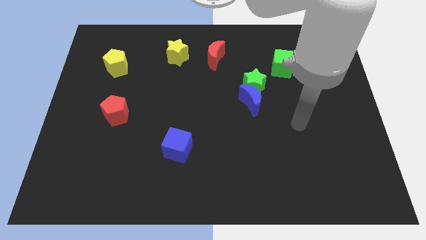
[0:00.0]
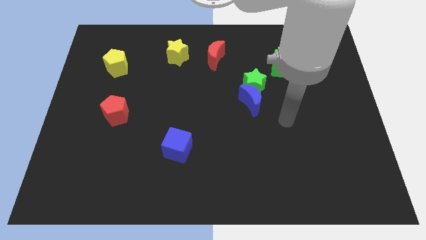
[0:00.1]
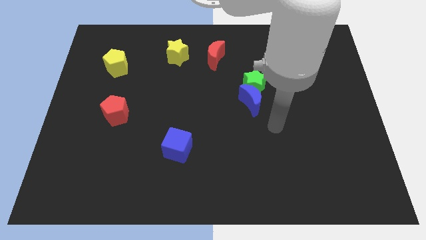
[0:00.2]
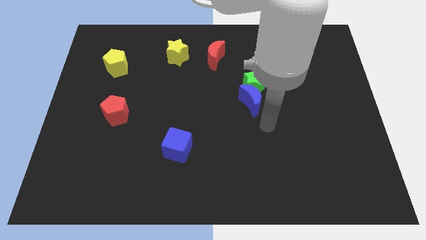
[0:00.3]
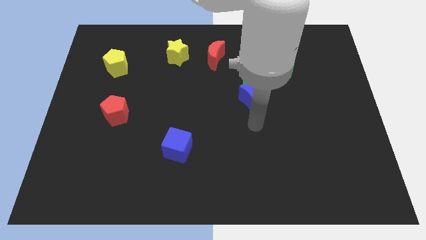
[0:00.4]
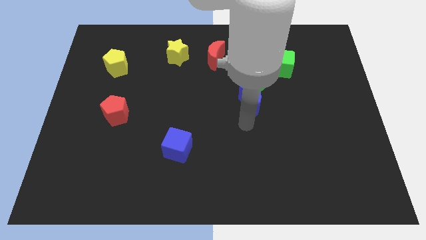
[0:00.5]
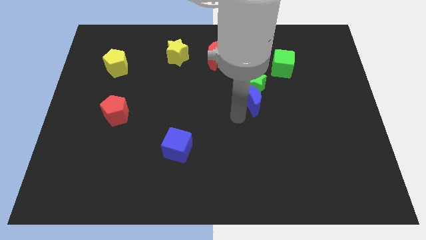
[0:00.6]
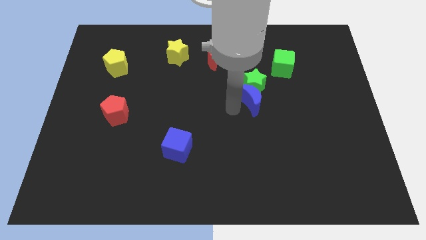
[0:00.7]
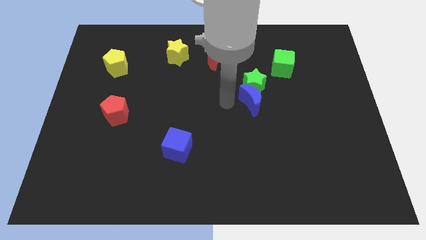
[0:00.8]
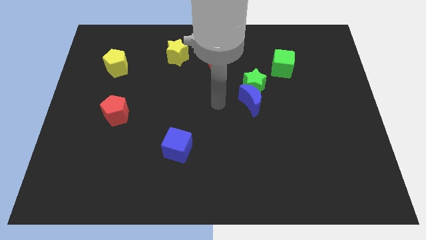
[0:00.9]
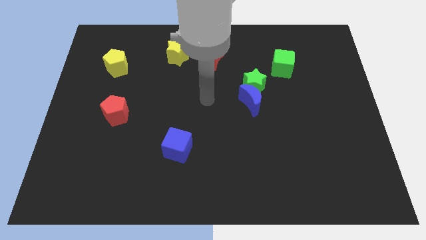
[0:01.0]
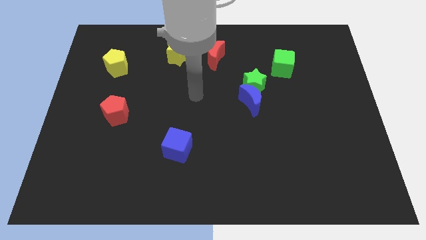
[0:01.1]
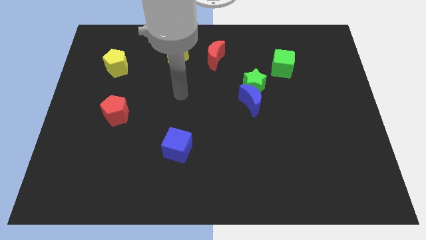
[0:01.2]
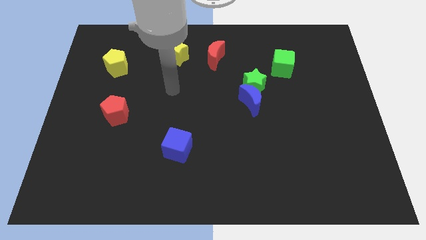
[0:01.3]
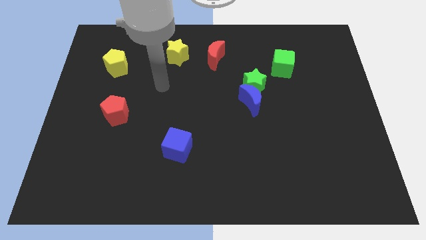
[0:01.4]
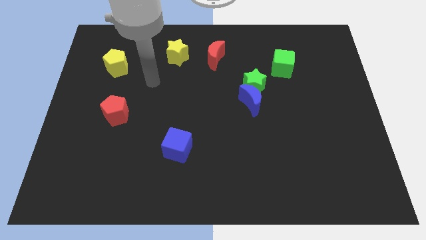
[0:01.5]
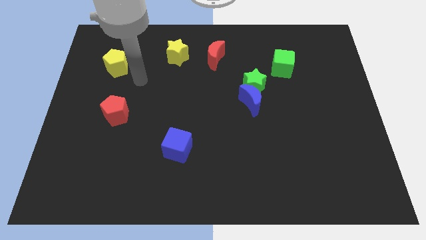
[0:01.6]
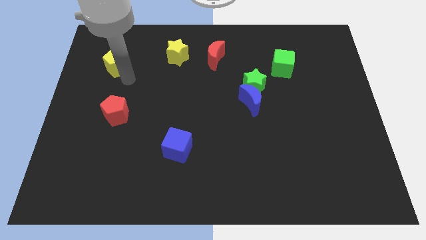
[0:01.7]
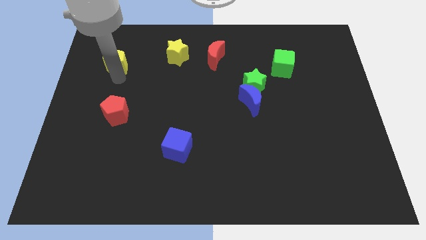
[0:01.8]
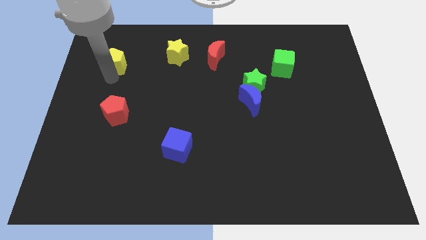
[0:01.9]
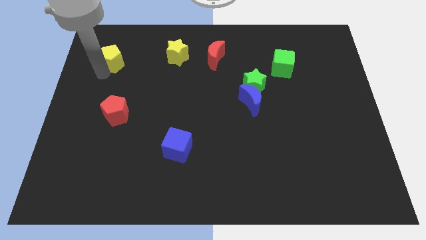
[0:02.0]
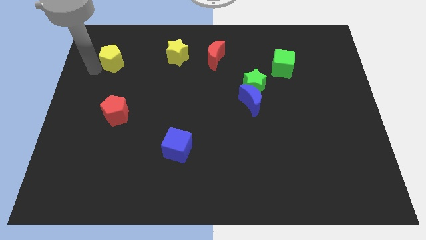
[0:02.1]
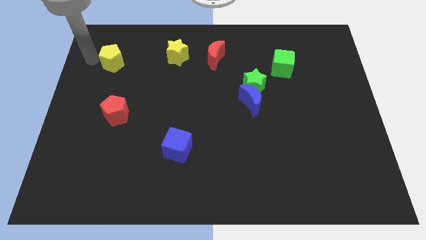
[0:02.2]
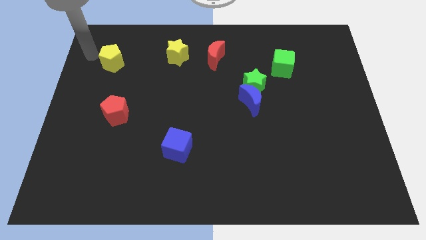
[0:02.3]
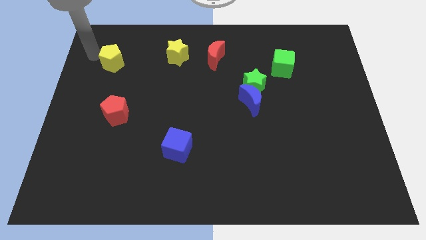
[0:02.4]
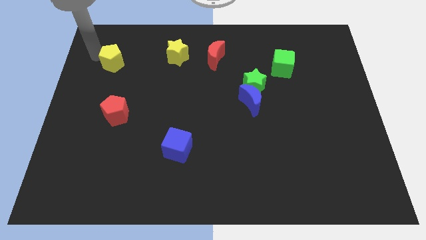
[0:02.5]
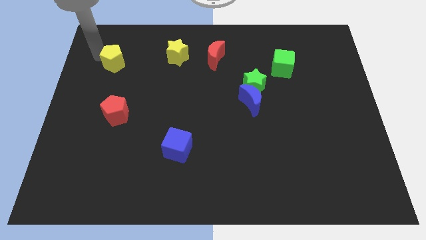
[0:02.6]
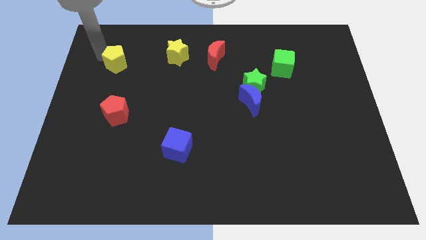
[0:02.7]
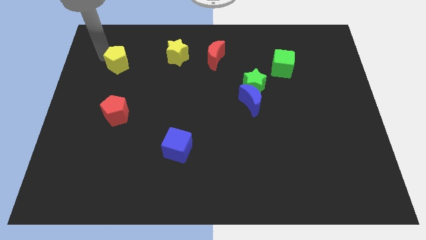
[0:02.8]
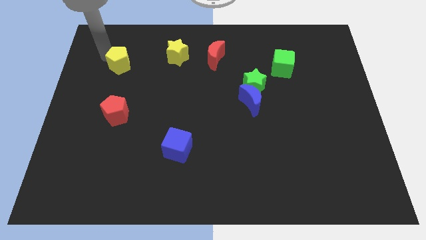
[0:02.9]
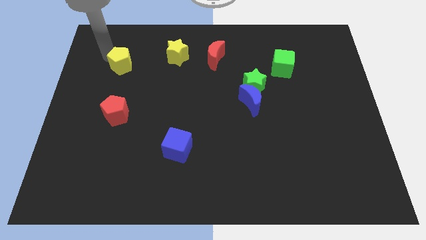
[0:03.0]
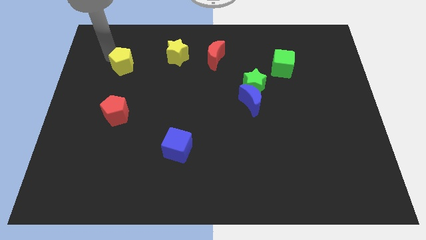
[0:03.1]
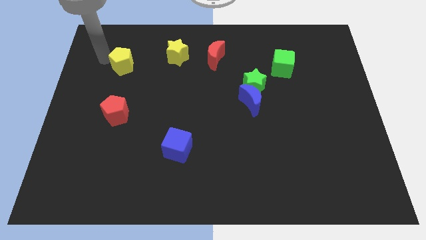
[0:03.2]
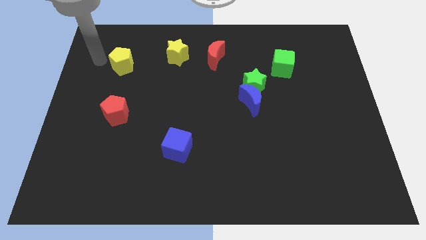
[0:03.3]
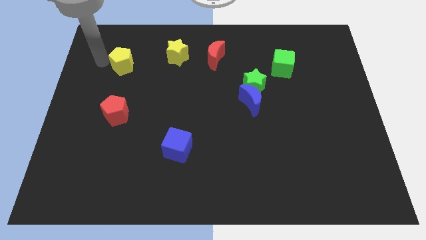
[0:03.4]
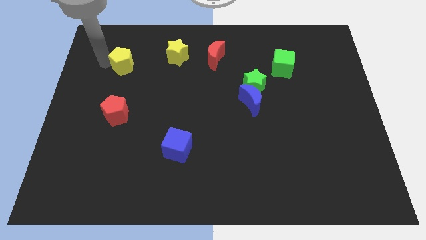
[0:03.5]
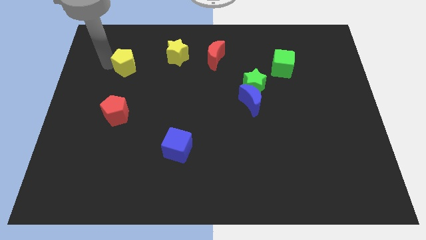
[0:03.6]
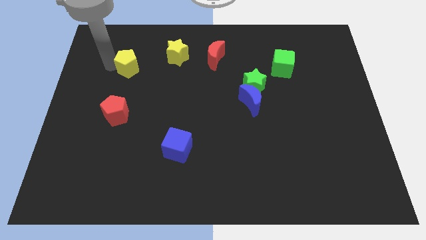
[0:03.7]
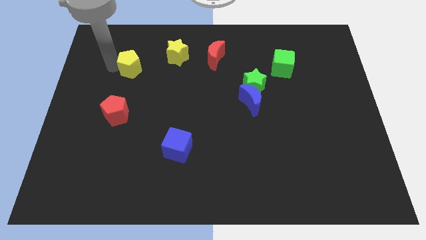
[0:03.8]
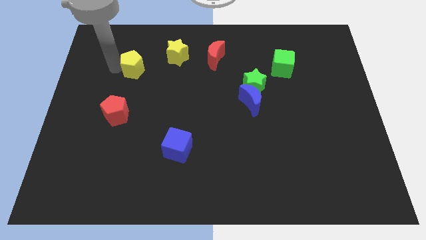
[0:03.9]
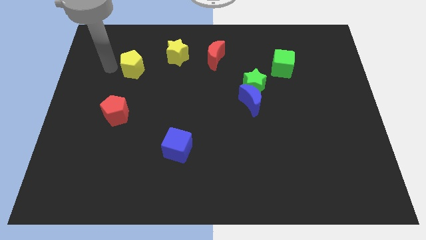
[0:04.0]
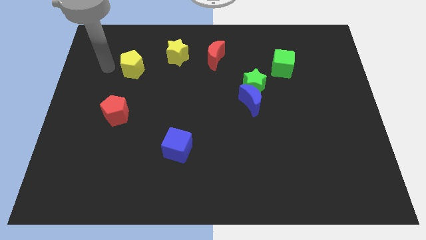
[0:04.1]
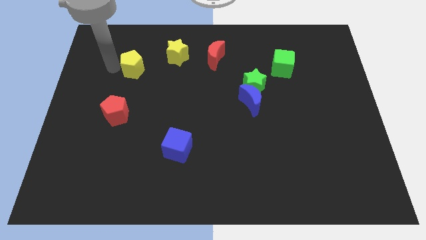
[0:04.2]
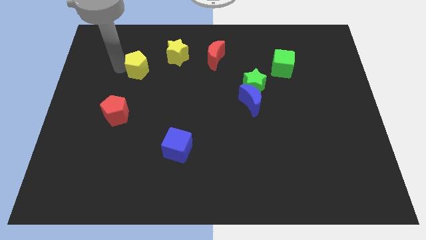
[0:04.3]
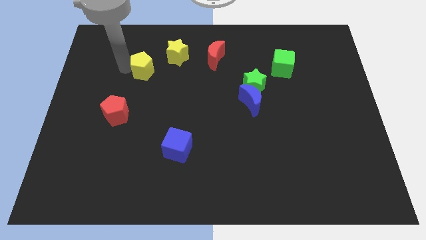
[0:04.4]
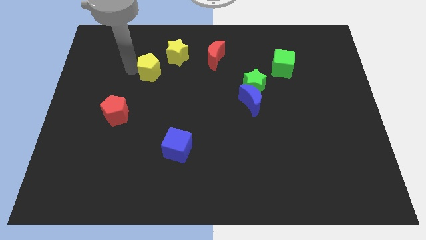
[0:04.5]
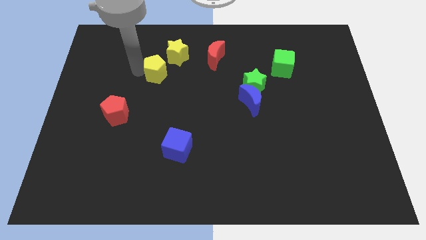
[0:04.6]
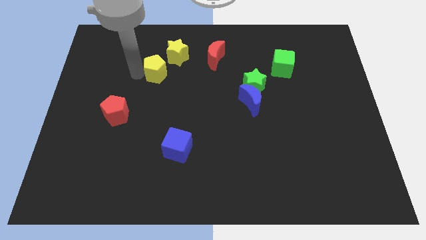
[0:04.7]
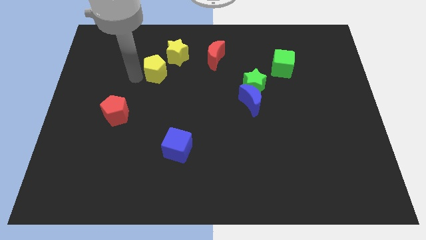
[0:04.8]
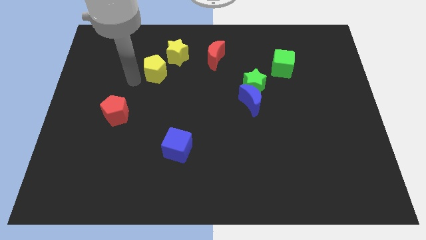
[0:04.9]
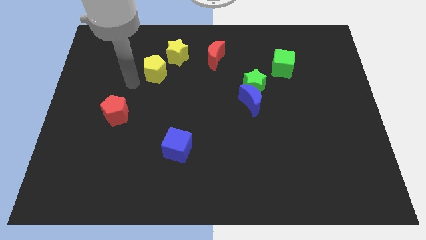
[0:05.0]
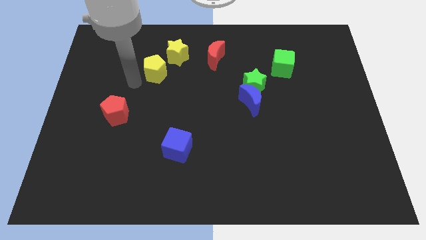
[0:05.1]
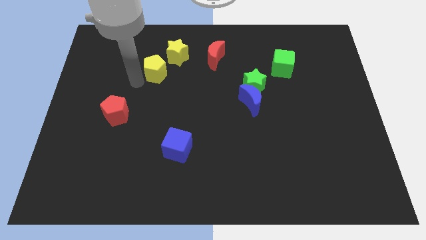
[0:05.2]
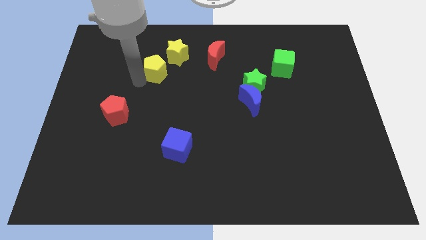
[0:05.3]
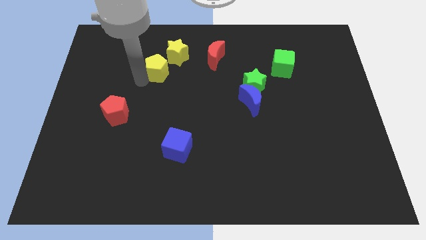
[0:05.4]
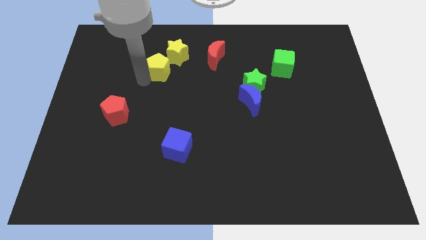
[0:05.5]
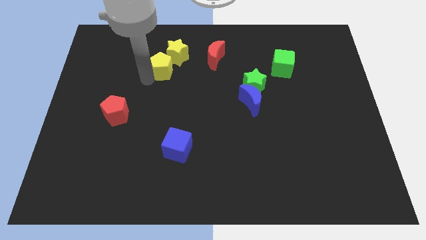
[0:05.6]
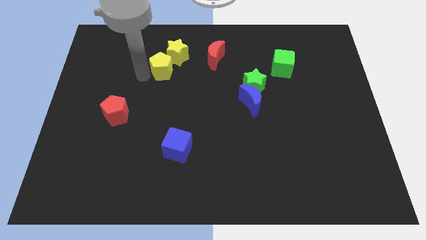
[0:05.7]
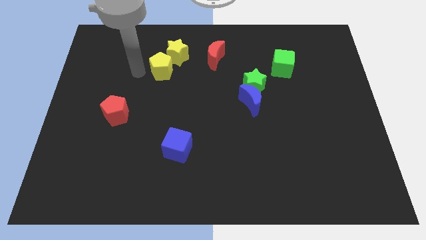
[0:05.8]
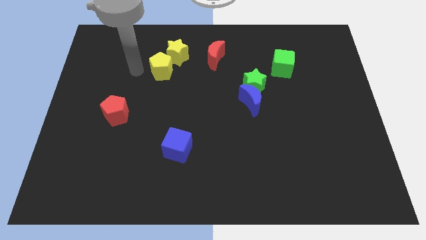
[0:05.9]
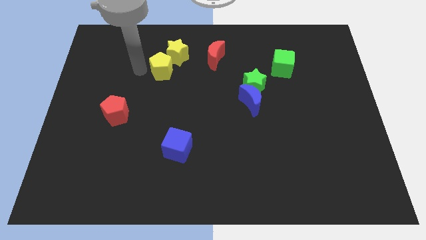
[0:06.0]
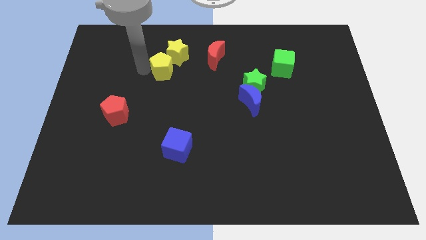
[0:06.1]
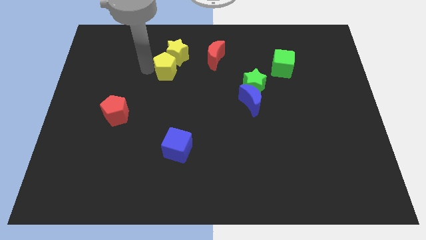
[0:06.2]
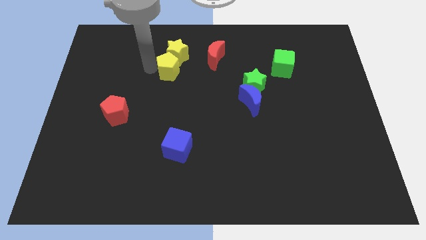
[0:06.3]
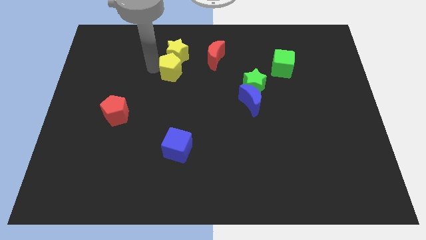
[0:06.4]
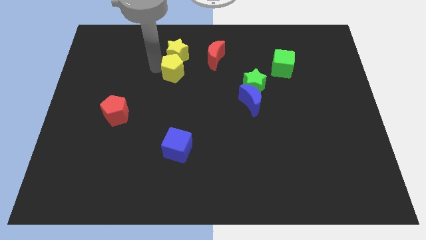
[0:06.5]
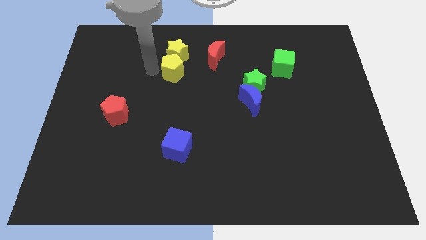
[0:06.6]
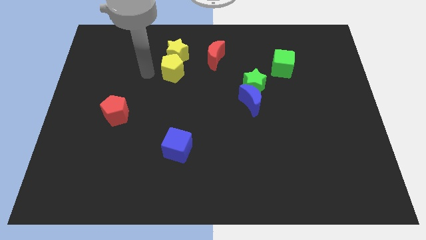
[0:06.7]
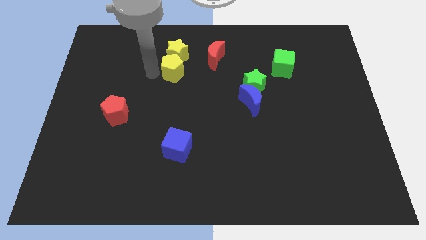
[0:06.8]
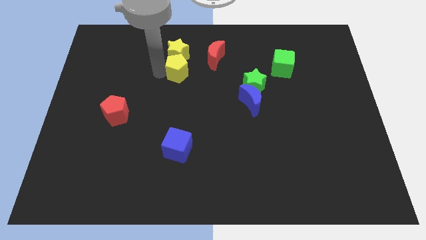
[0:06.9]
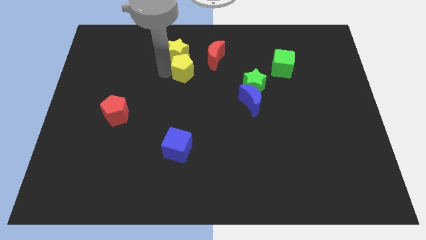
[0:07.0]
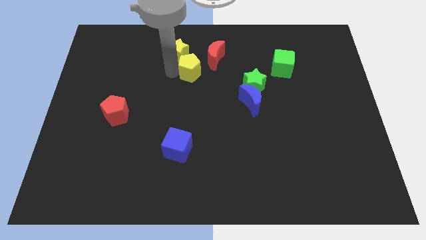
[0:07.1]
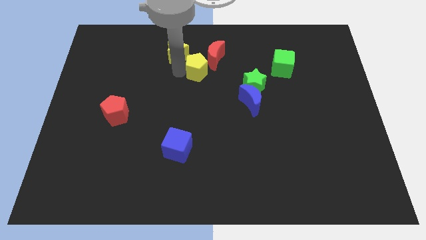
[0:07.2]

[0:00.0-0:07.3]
move the yellow pentagon to the right

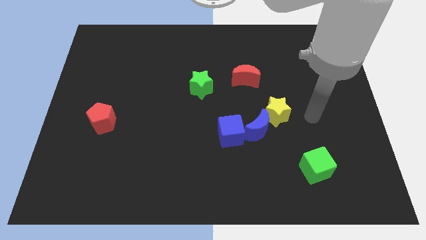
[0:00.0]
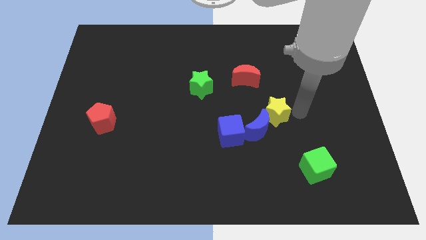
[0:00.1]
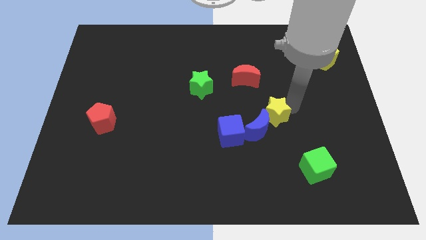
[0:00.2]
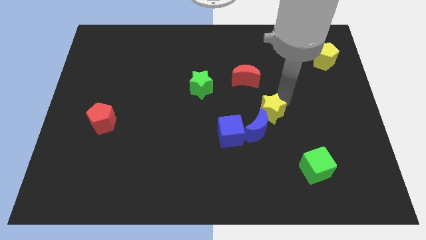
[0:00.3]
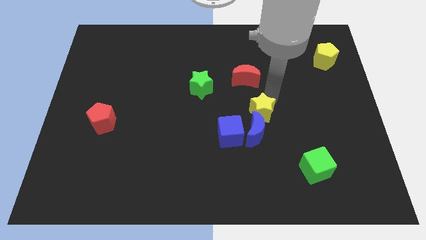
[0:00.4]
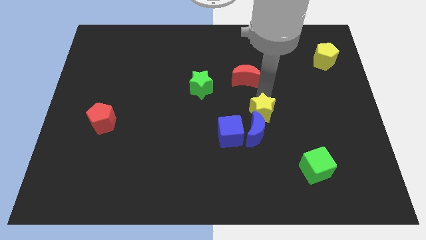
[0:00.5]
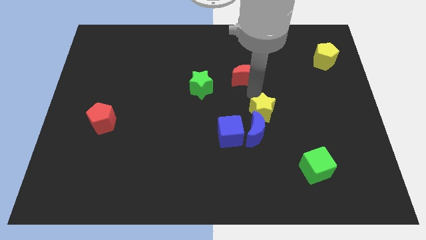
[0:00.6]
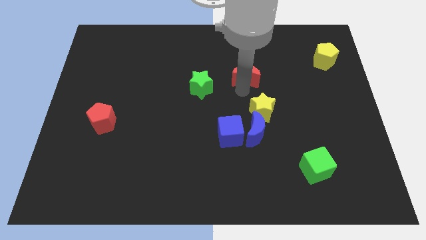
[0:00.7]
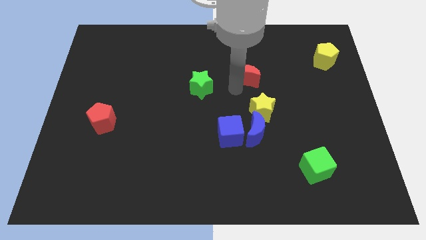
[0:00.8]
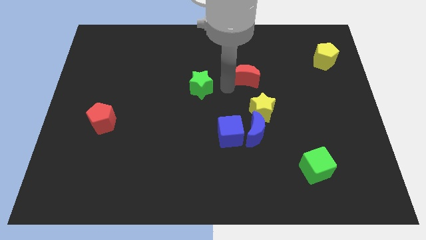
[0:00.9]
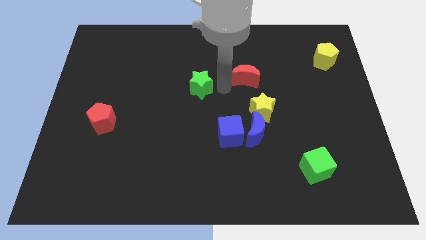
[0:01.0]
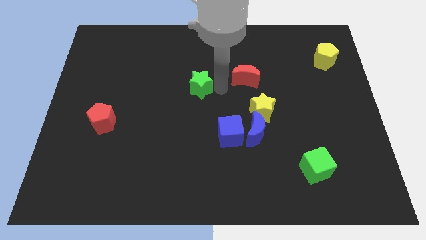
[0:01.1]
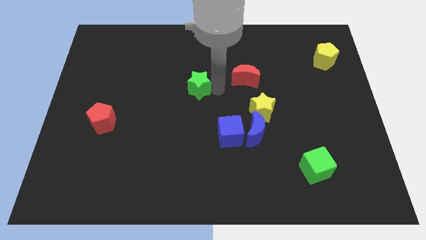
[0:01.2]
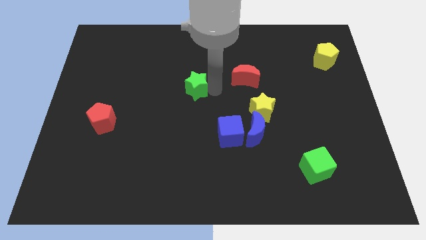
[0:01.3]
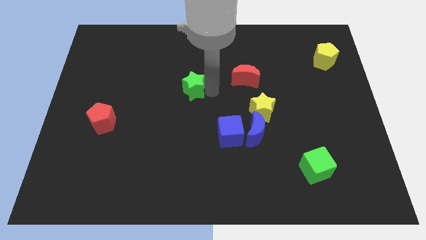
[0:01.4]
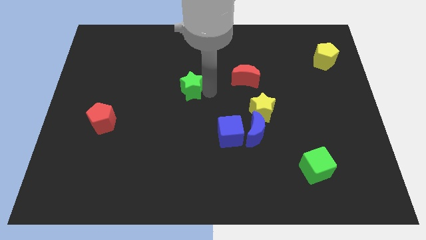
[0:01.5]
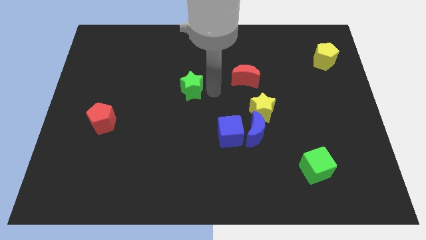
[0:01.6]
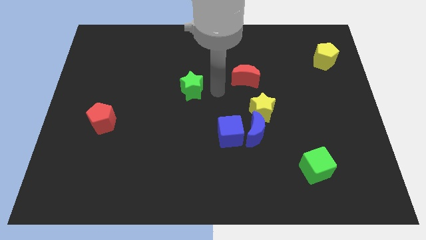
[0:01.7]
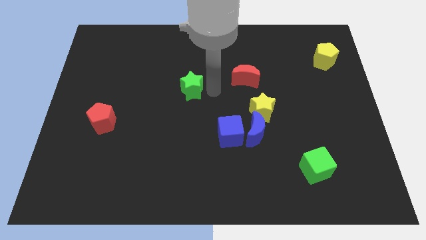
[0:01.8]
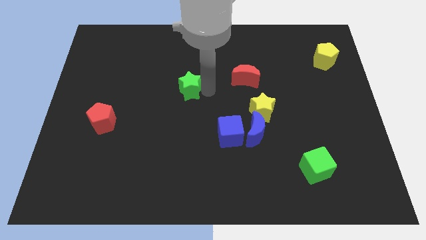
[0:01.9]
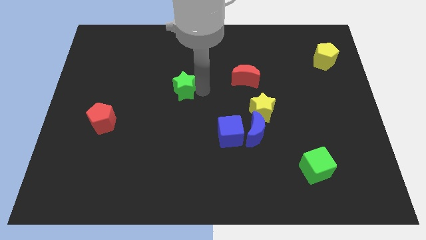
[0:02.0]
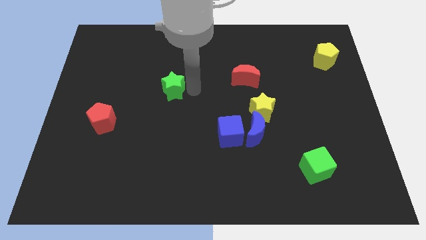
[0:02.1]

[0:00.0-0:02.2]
slightly slide the green star left
